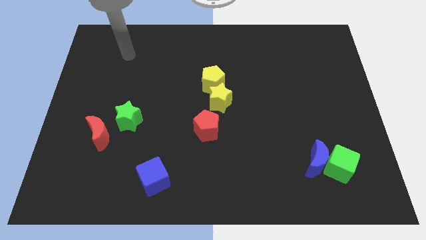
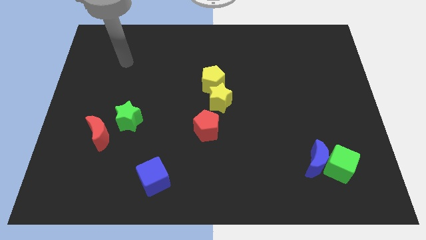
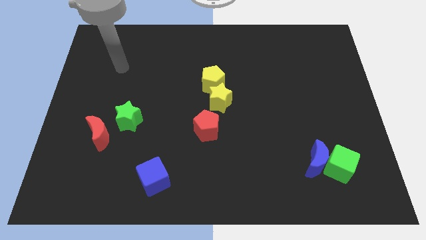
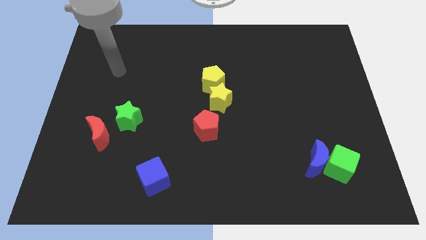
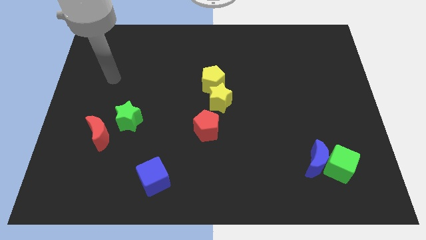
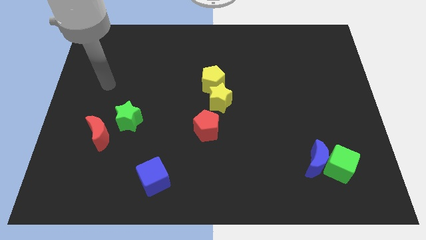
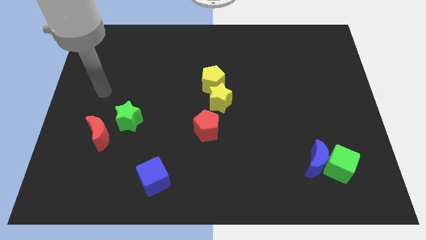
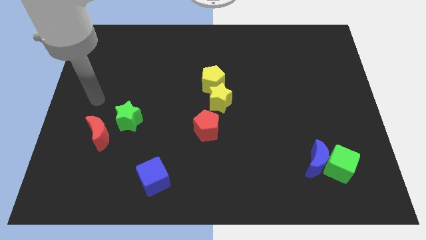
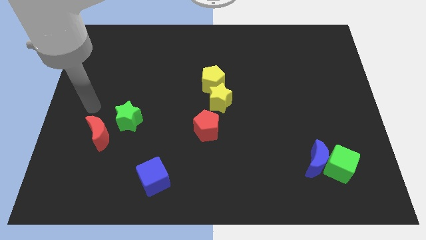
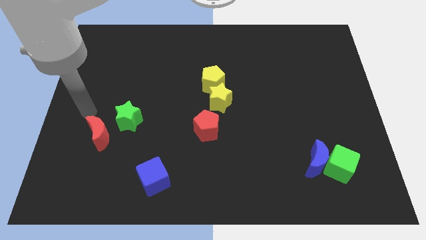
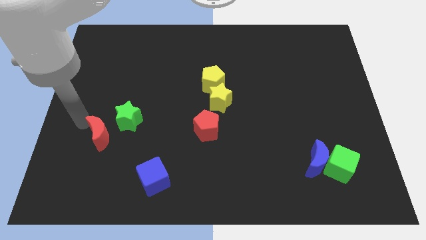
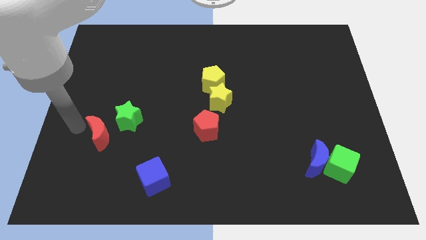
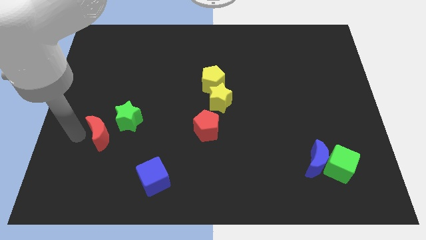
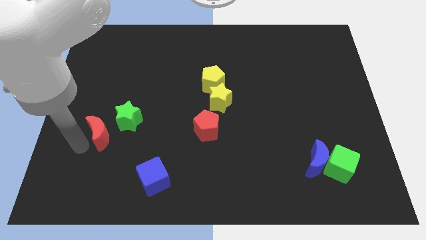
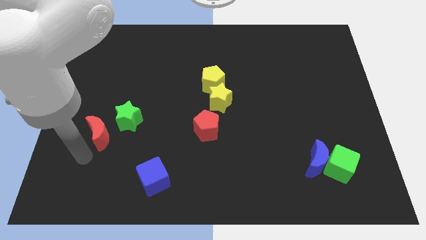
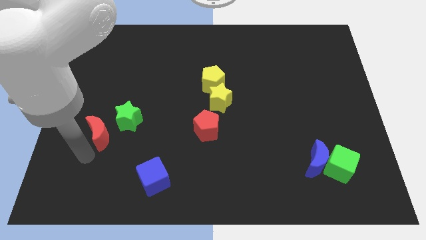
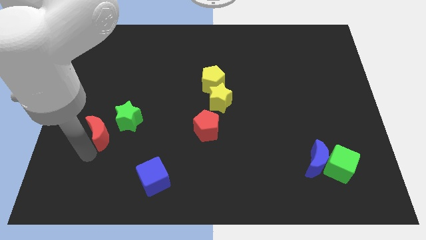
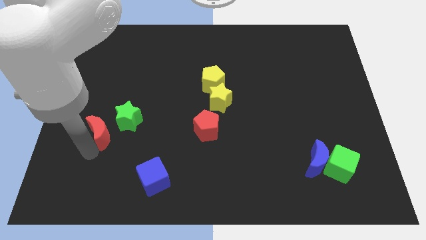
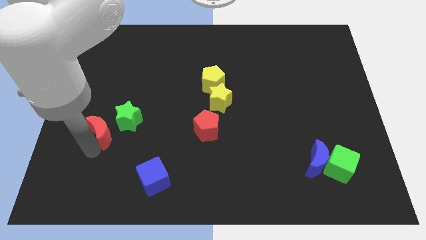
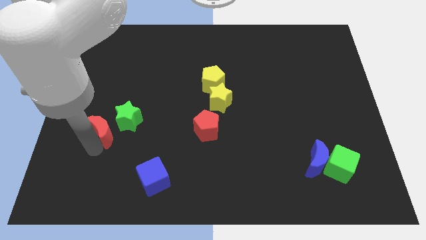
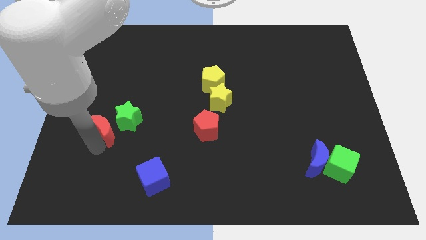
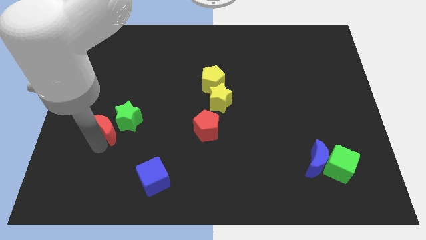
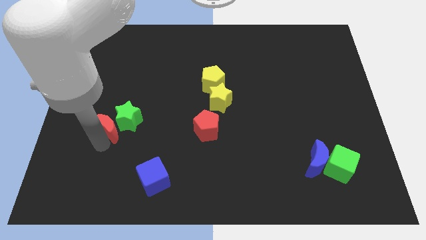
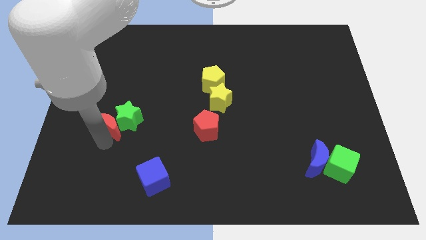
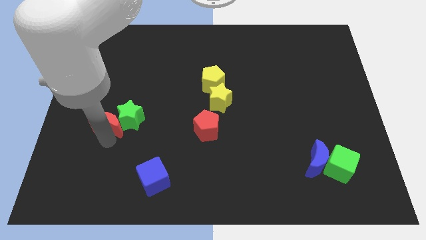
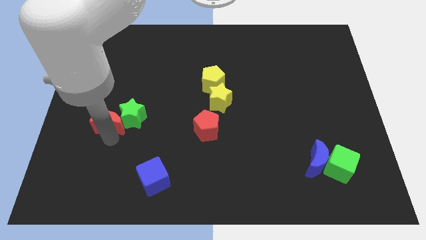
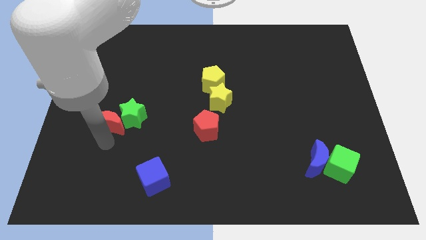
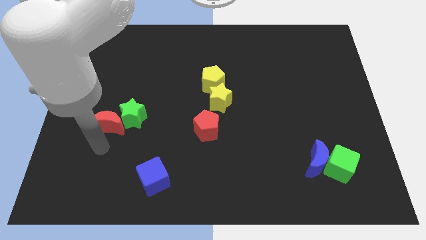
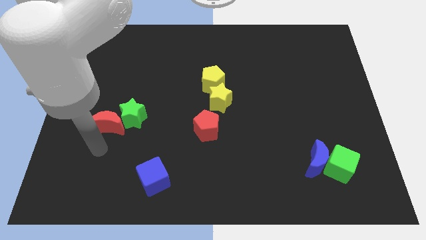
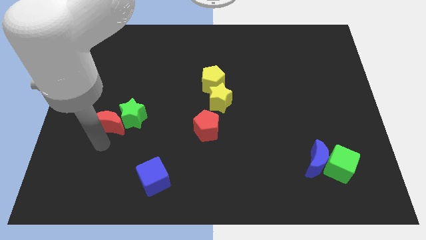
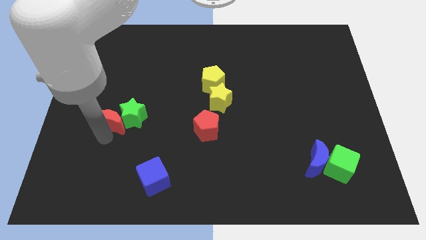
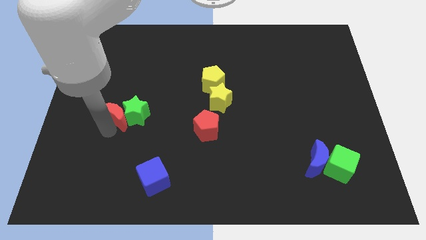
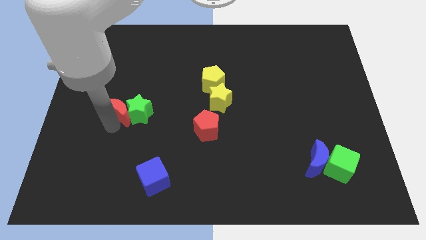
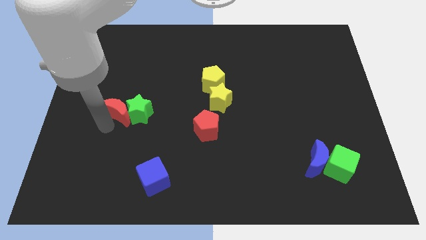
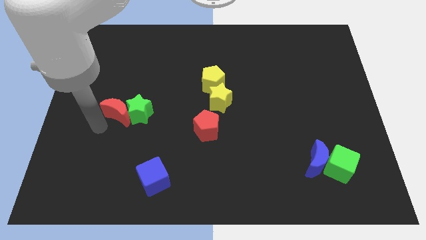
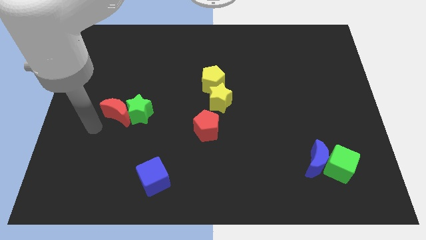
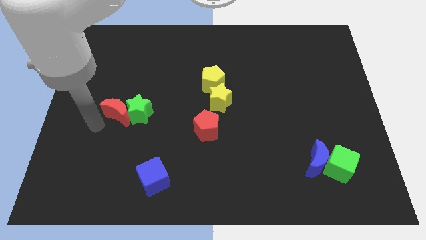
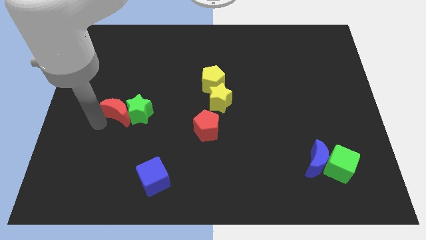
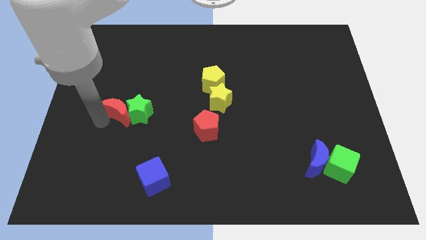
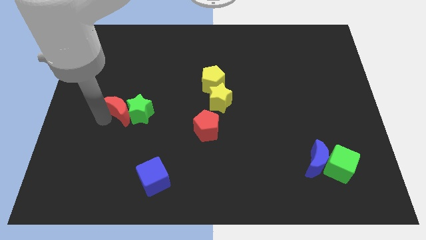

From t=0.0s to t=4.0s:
slide the red moon up and right slightly

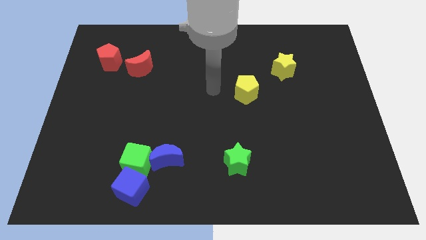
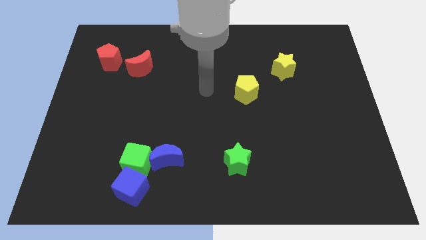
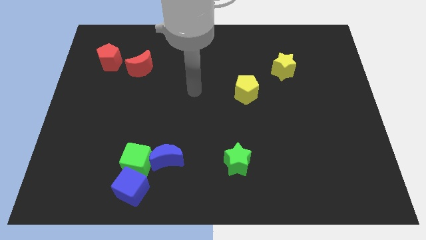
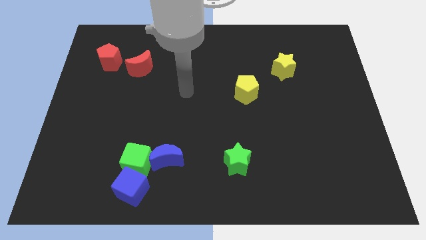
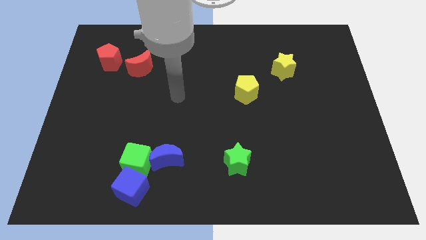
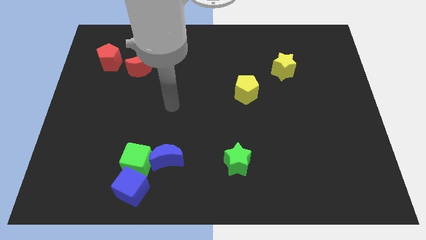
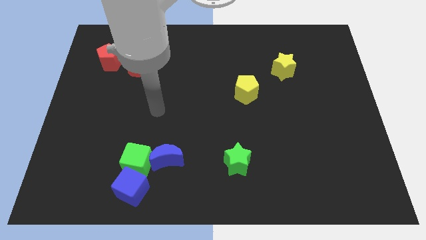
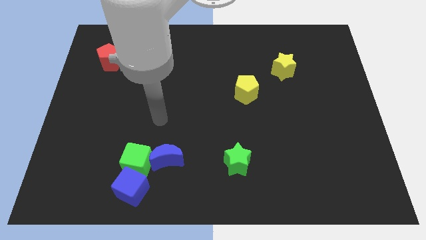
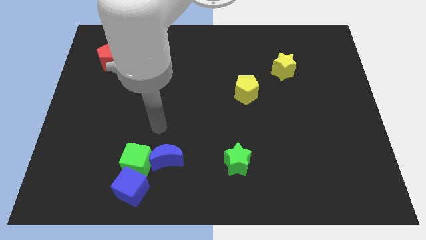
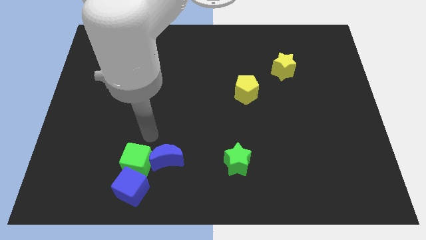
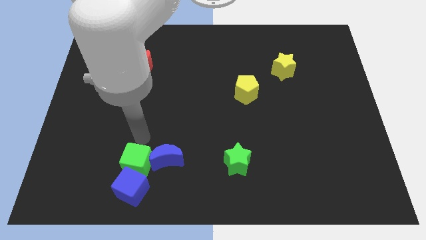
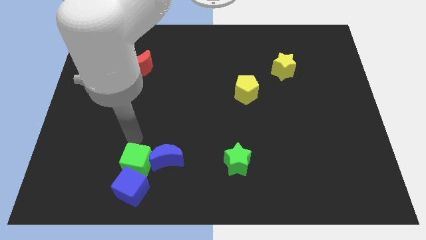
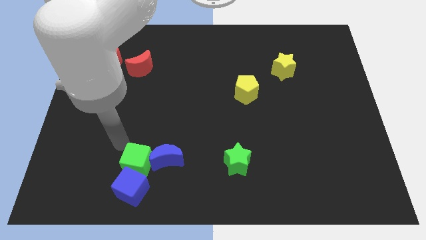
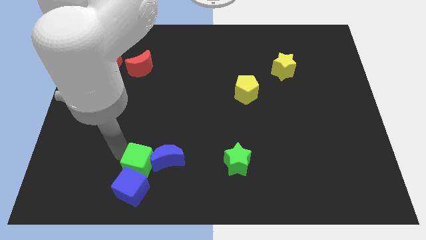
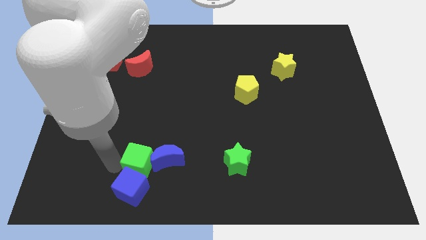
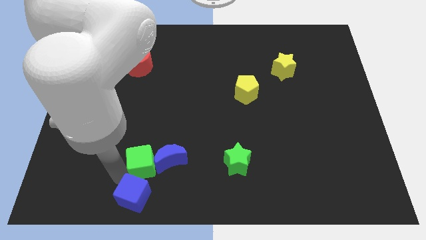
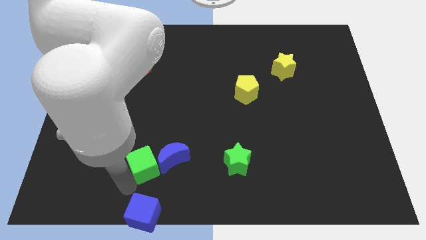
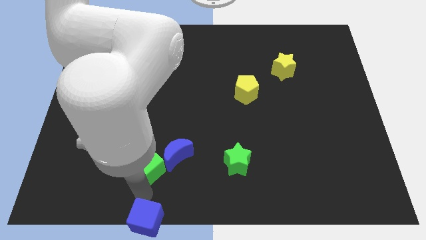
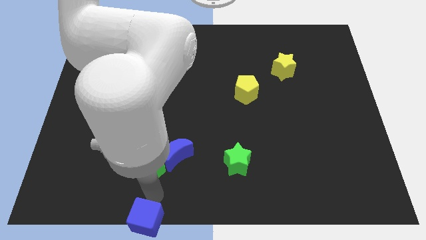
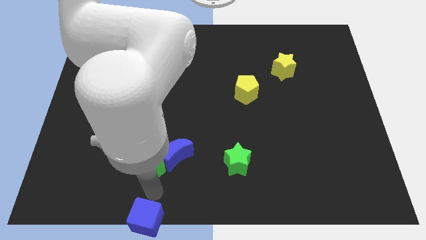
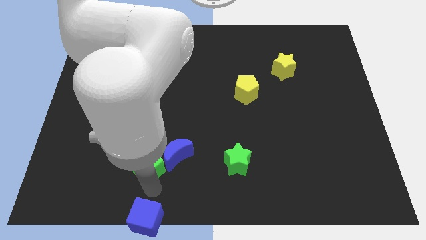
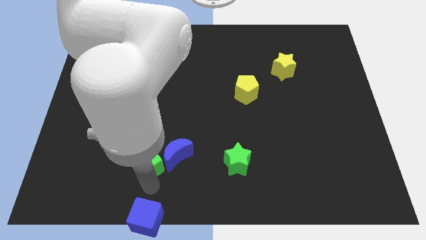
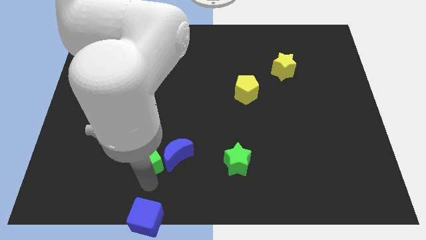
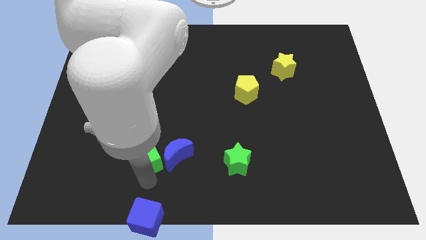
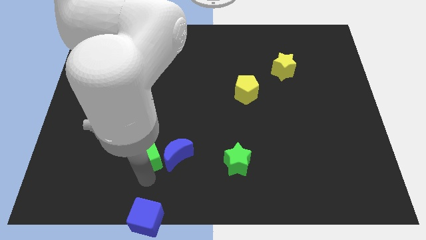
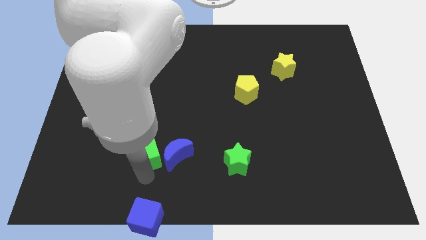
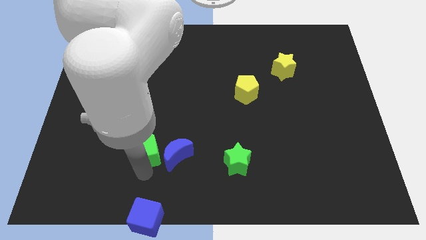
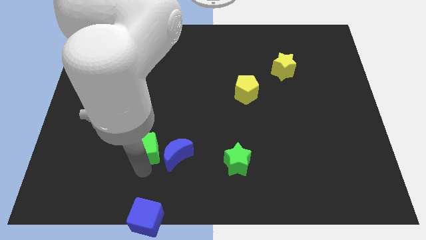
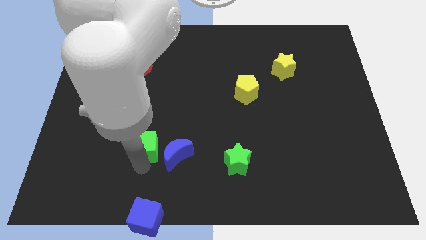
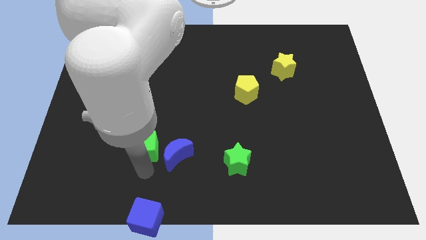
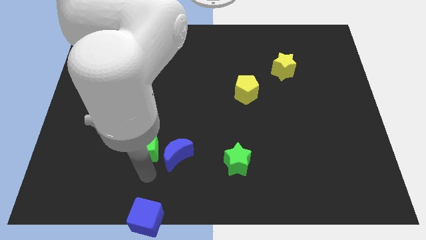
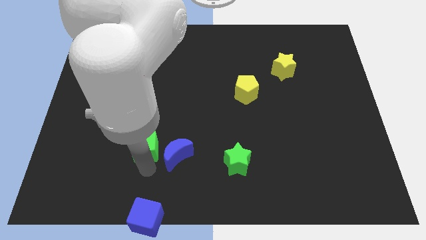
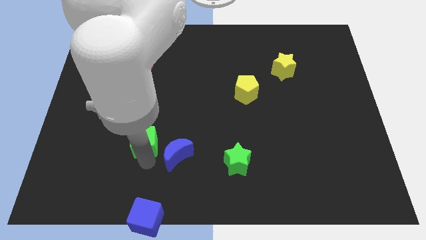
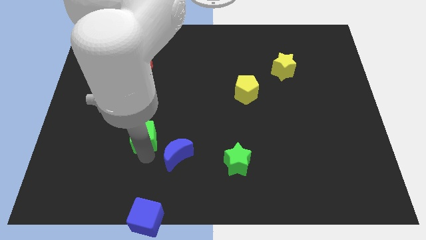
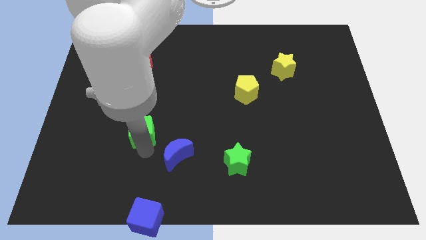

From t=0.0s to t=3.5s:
slide the green cube upwards a little

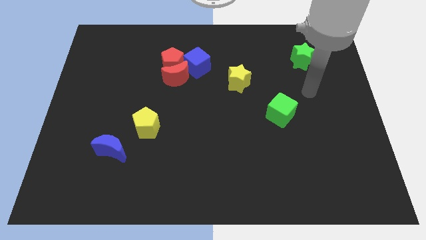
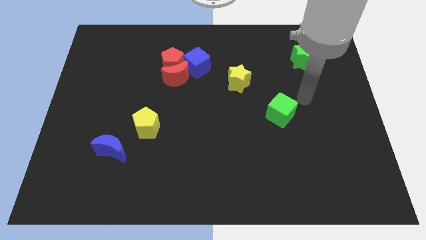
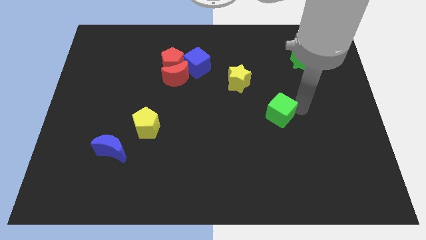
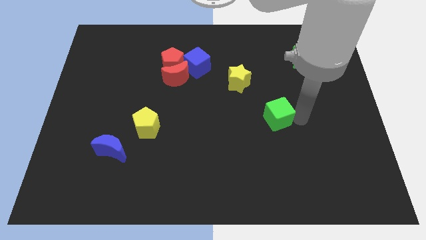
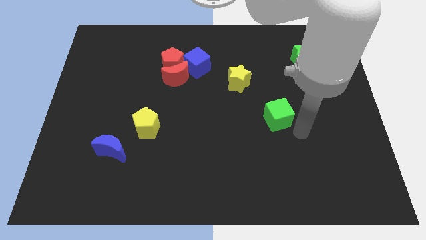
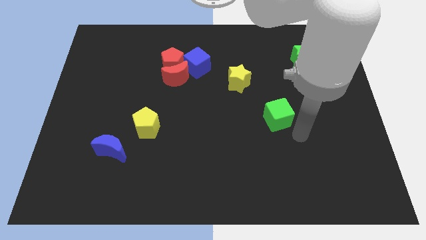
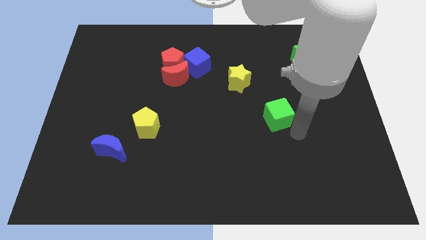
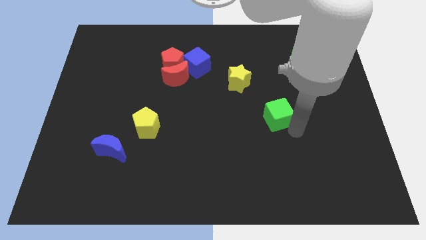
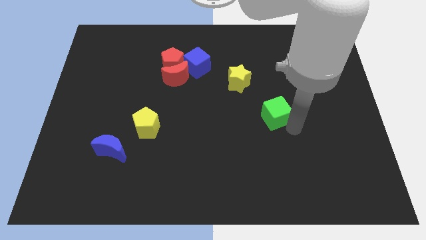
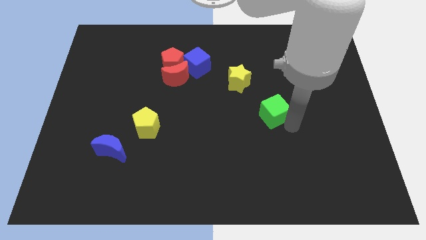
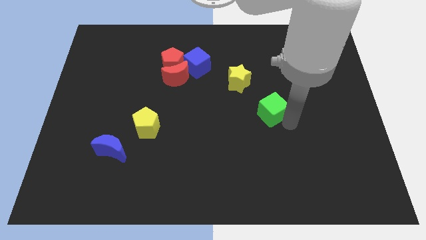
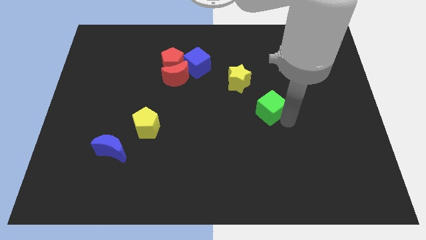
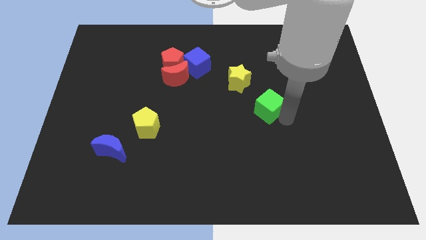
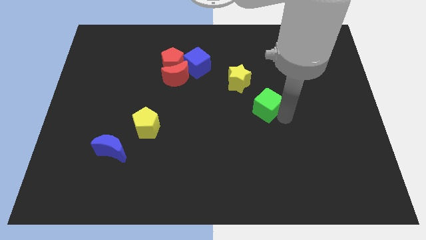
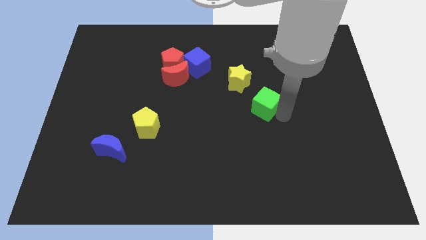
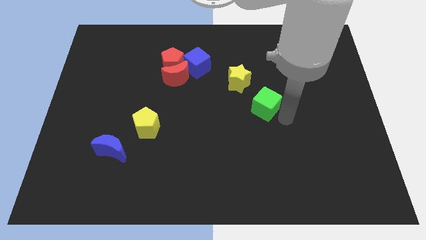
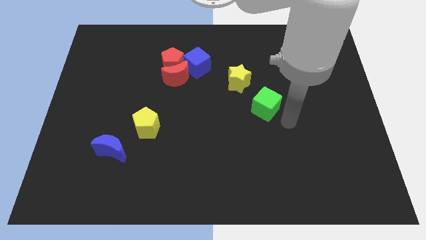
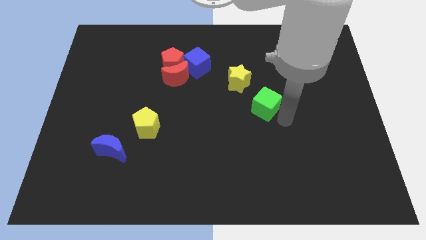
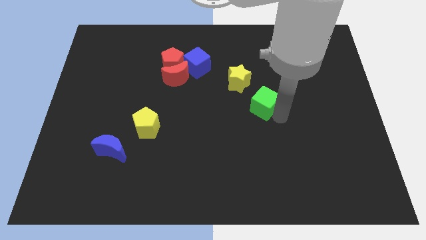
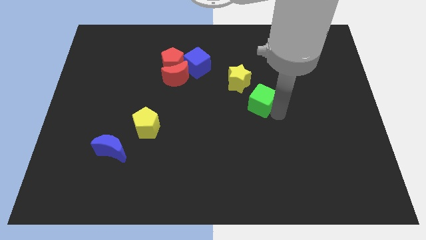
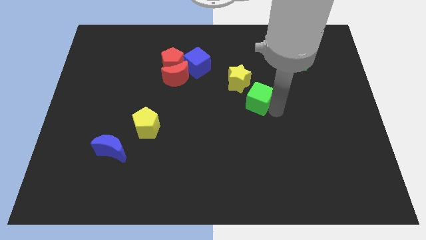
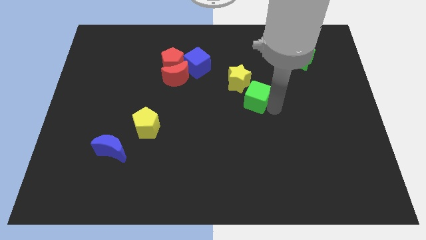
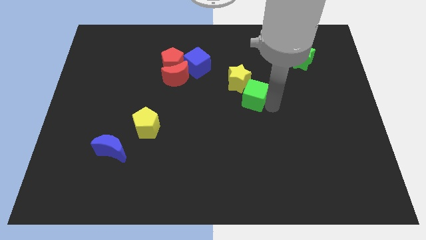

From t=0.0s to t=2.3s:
push the green cube upwards and to the left diagonally slightly
